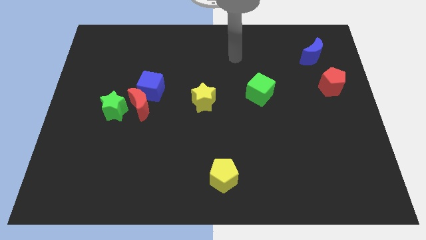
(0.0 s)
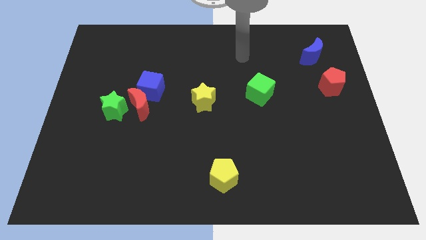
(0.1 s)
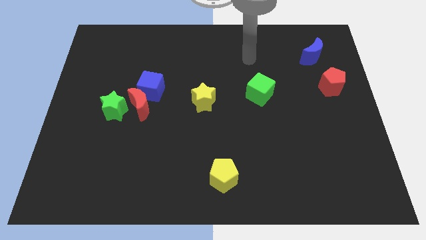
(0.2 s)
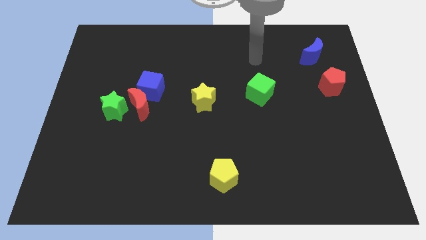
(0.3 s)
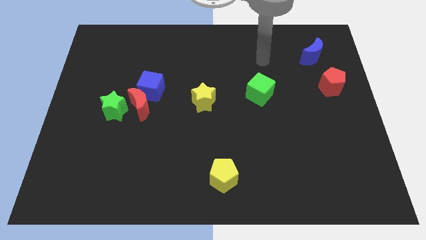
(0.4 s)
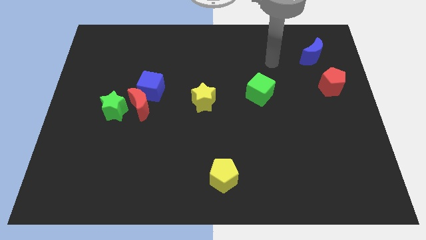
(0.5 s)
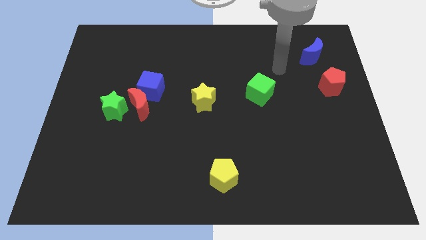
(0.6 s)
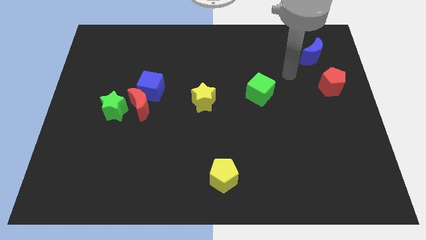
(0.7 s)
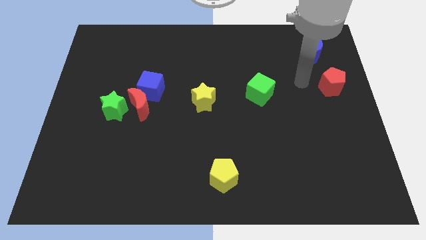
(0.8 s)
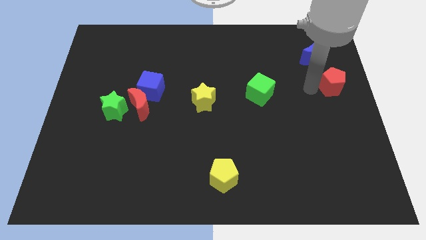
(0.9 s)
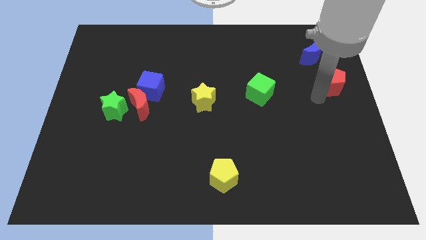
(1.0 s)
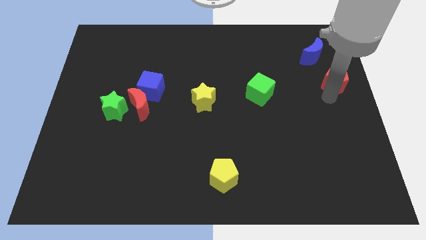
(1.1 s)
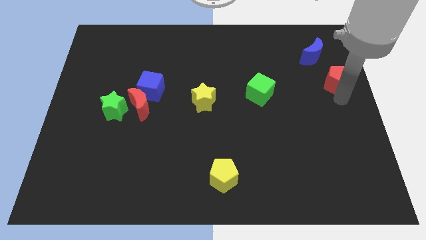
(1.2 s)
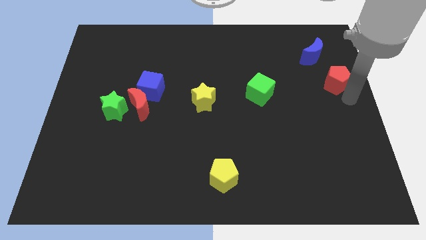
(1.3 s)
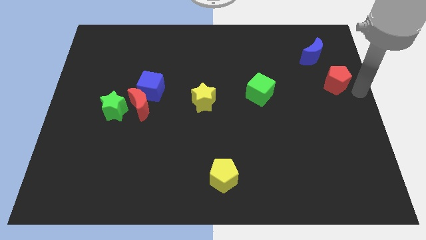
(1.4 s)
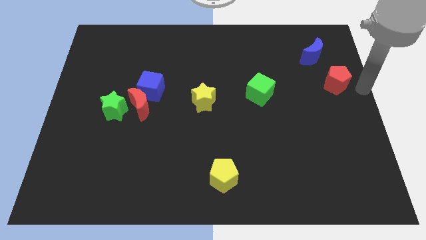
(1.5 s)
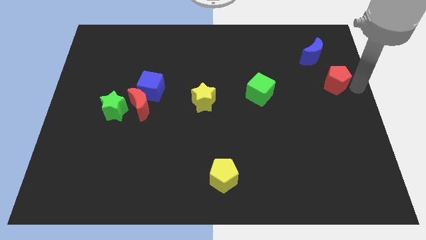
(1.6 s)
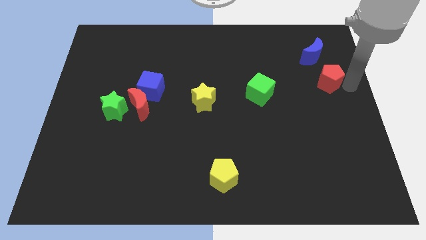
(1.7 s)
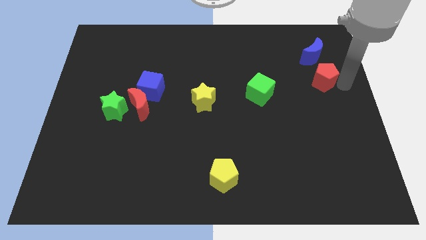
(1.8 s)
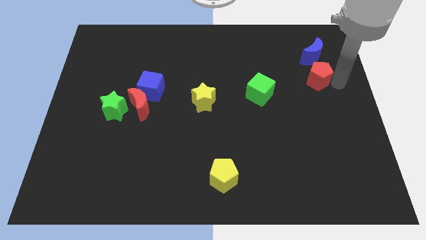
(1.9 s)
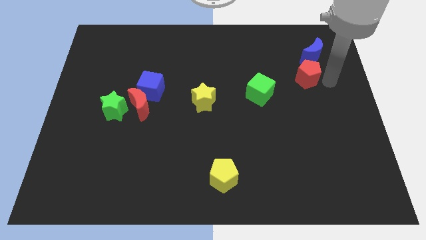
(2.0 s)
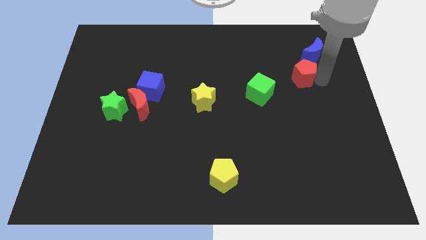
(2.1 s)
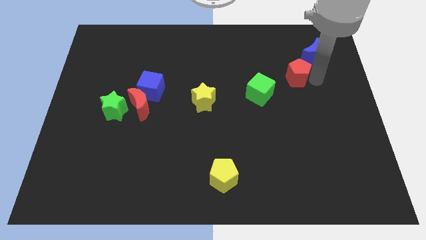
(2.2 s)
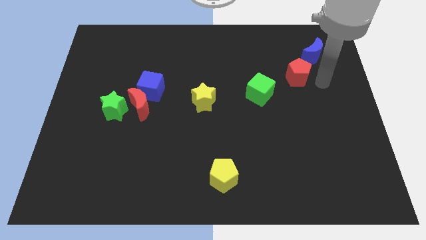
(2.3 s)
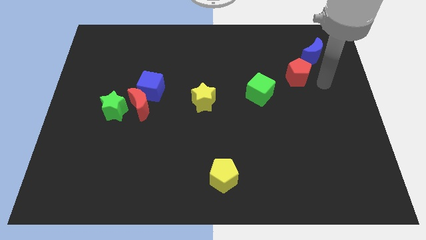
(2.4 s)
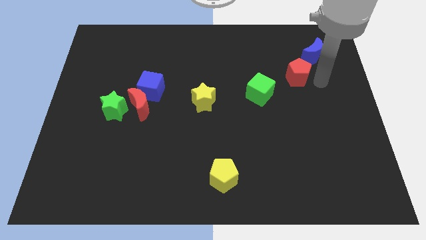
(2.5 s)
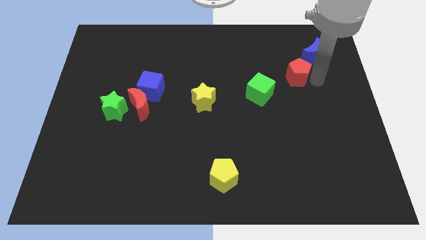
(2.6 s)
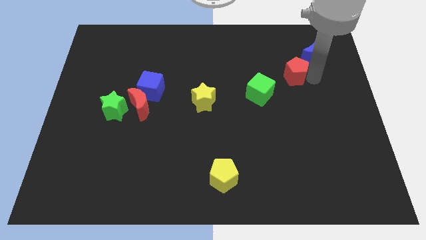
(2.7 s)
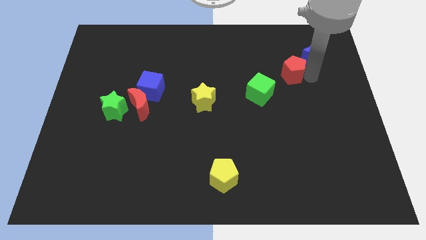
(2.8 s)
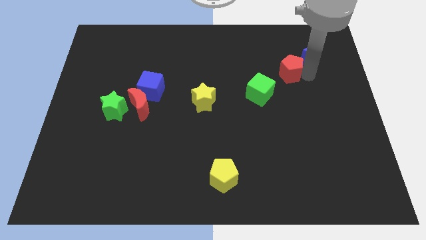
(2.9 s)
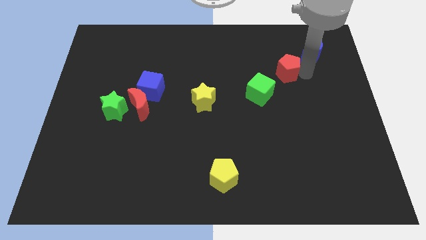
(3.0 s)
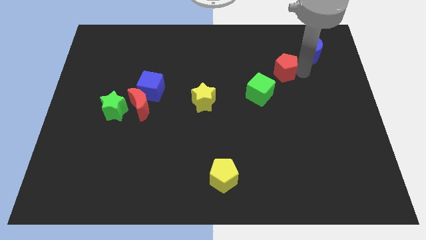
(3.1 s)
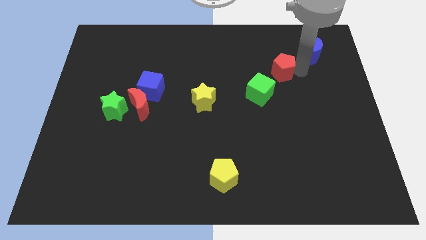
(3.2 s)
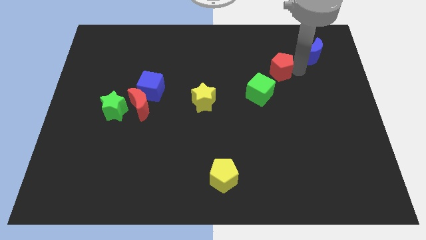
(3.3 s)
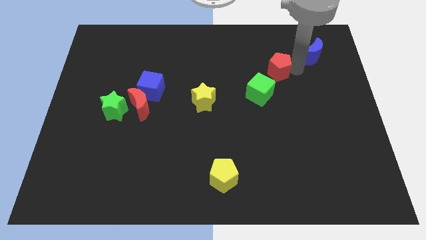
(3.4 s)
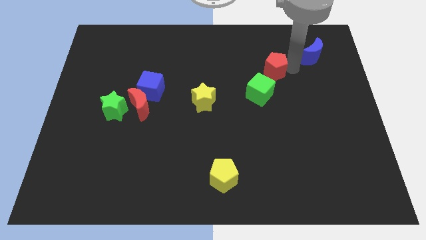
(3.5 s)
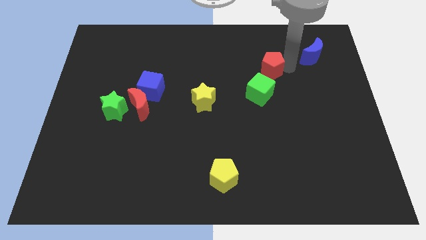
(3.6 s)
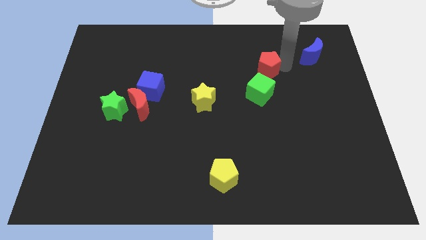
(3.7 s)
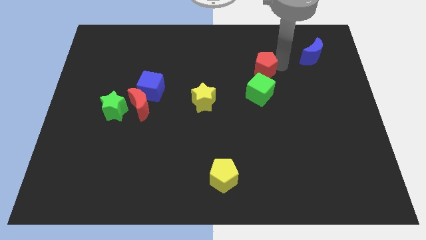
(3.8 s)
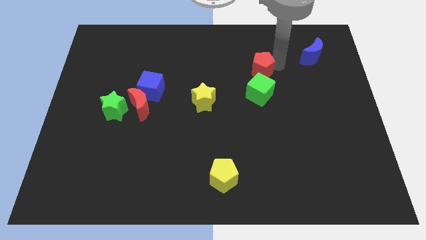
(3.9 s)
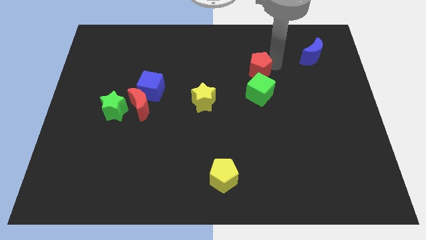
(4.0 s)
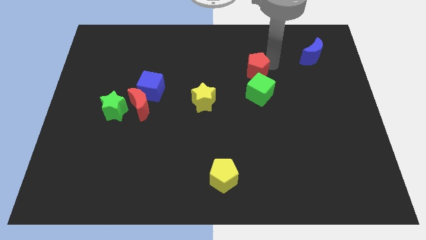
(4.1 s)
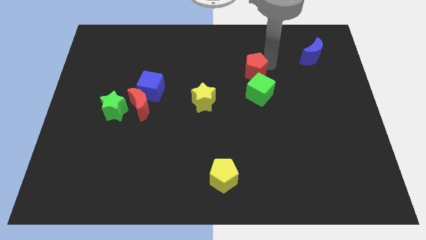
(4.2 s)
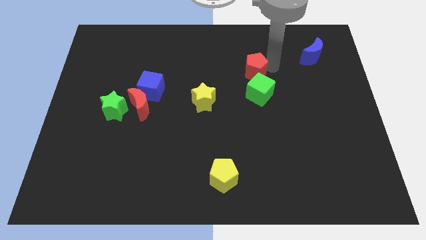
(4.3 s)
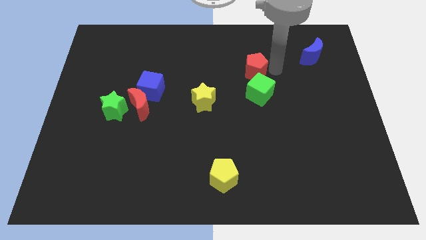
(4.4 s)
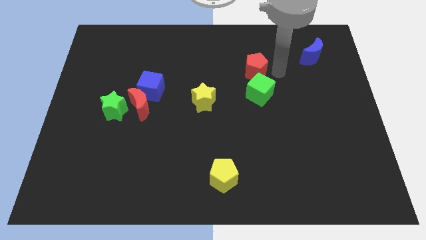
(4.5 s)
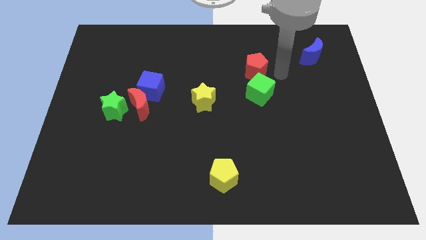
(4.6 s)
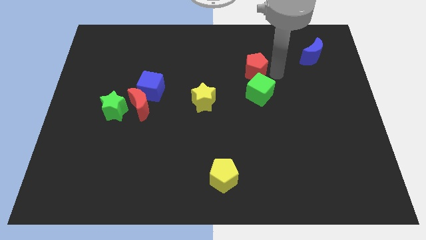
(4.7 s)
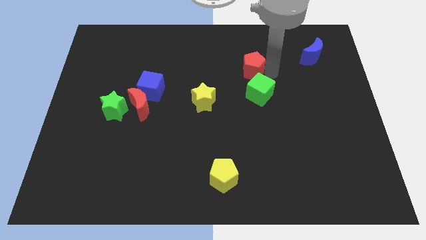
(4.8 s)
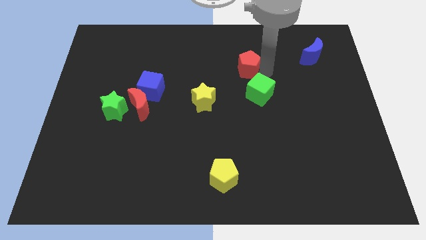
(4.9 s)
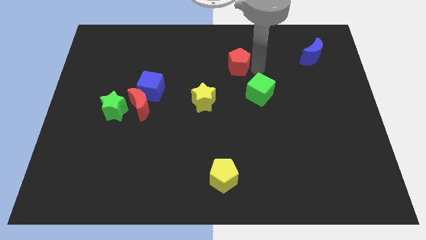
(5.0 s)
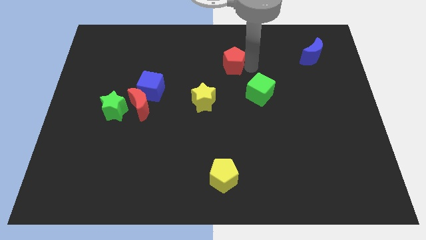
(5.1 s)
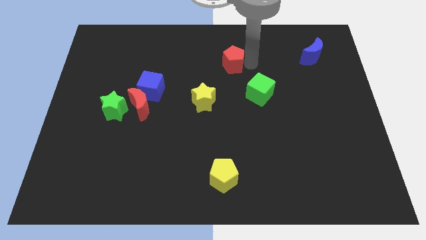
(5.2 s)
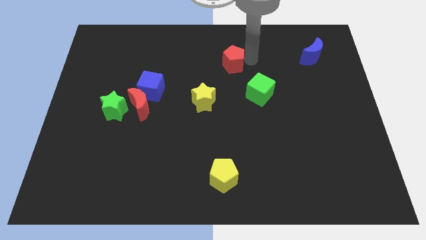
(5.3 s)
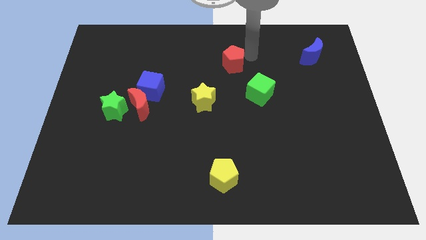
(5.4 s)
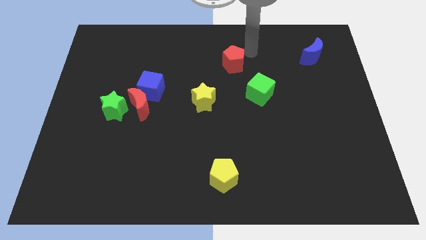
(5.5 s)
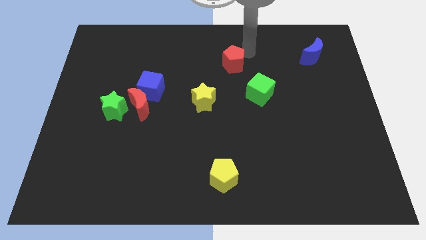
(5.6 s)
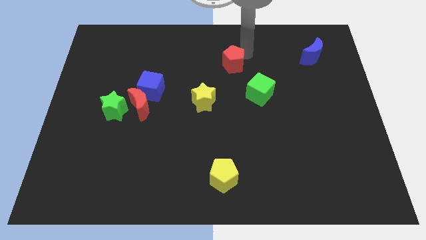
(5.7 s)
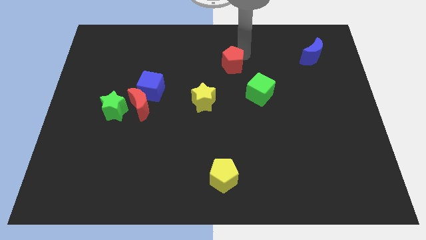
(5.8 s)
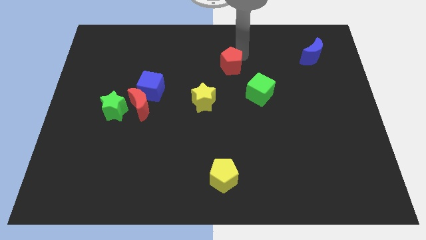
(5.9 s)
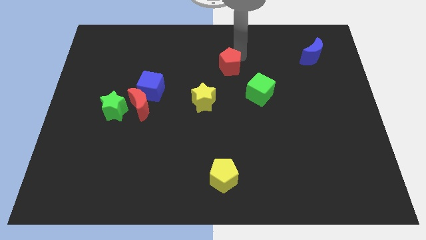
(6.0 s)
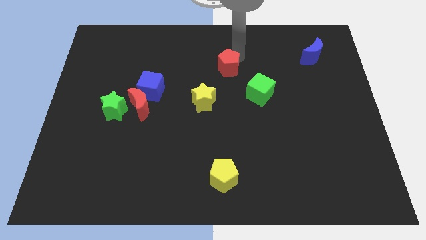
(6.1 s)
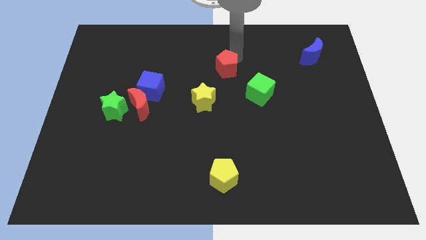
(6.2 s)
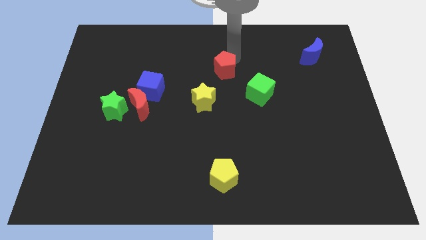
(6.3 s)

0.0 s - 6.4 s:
slide the red pentagon to the top of the yellow star
